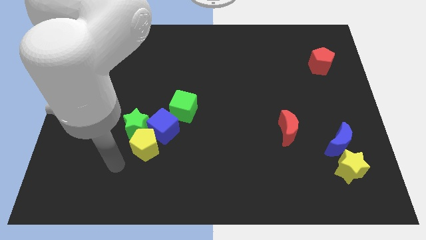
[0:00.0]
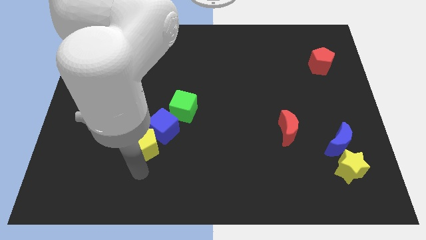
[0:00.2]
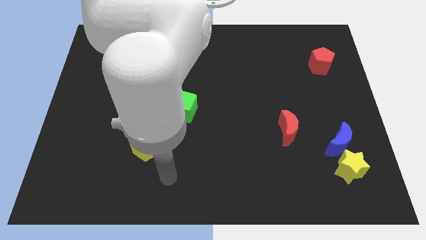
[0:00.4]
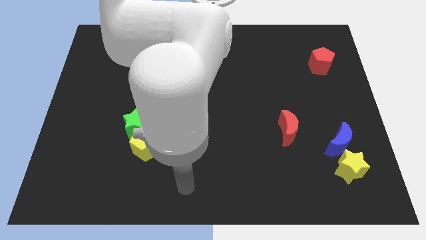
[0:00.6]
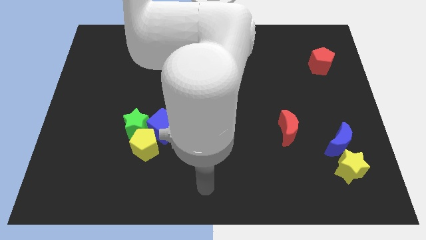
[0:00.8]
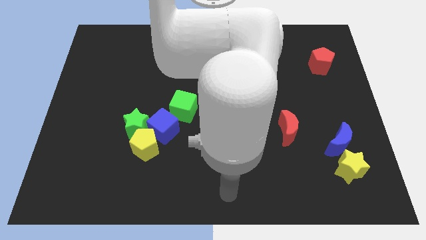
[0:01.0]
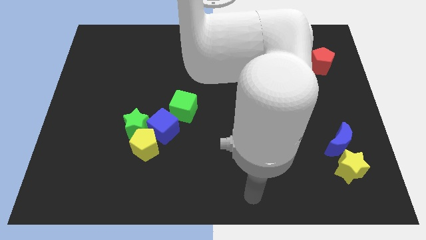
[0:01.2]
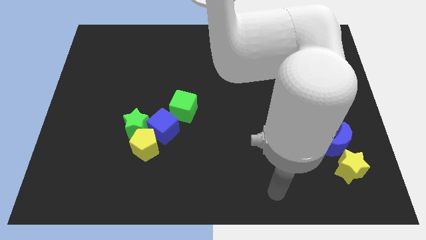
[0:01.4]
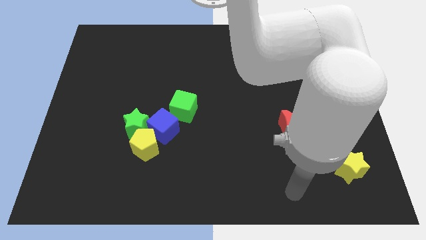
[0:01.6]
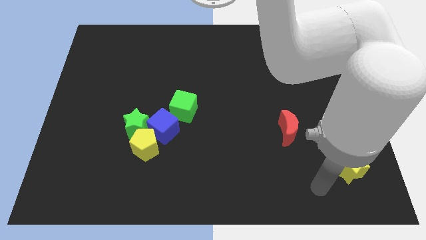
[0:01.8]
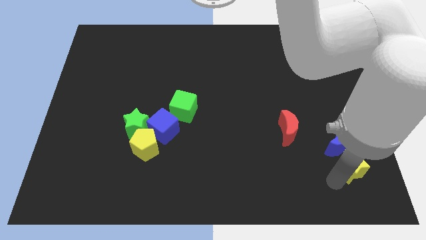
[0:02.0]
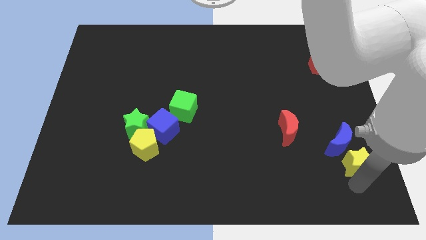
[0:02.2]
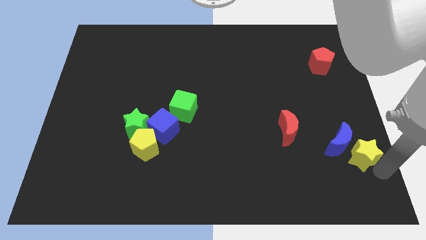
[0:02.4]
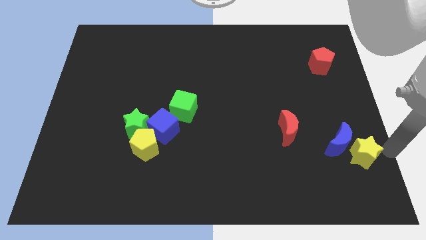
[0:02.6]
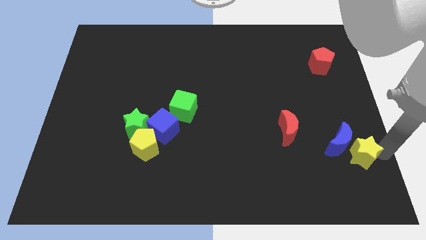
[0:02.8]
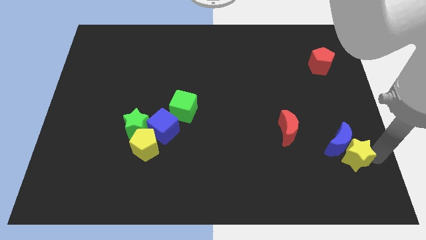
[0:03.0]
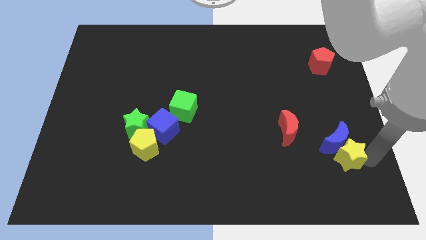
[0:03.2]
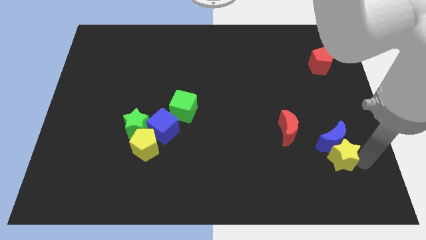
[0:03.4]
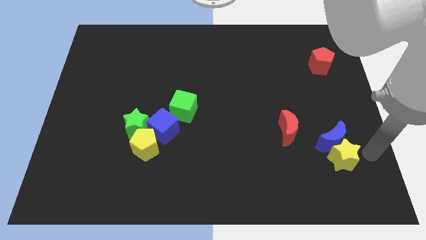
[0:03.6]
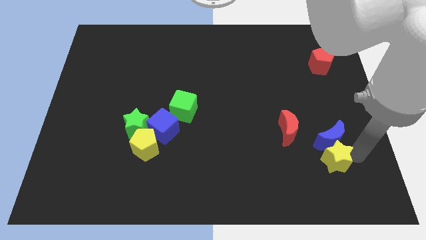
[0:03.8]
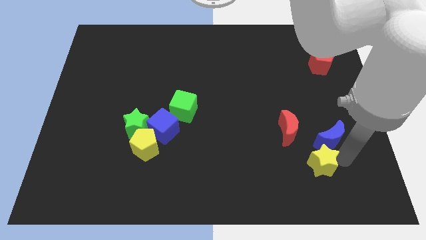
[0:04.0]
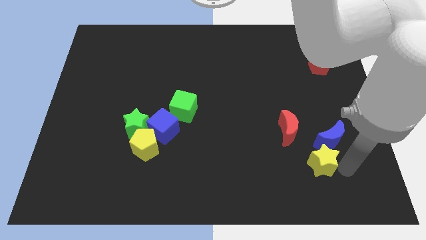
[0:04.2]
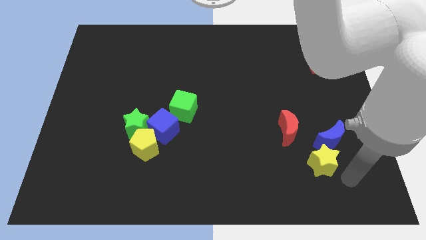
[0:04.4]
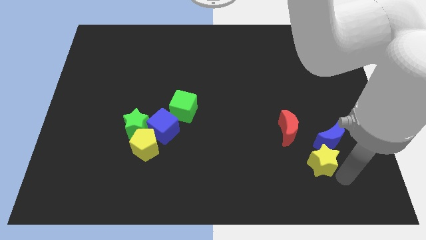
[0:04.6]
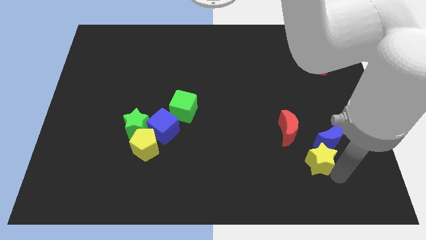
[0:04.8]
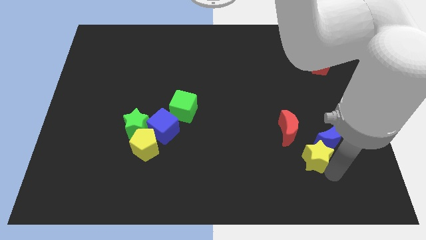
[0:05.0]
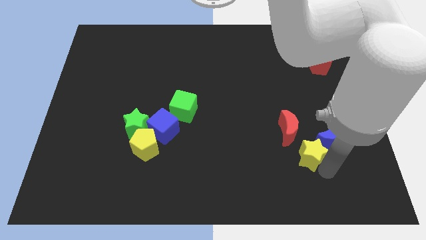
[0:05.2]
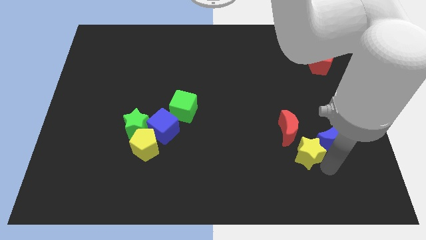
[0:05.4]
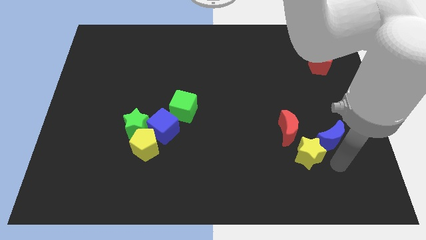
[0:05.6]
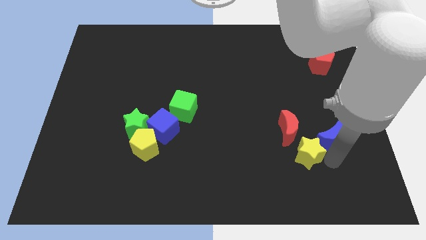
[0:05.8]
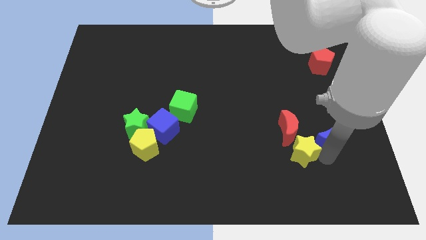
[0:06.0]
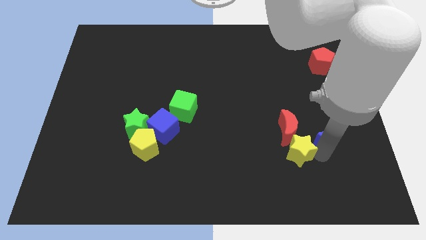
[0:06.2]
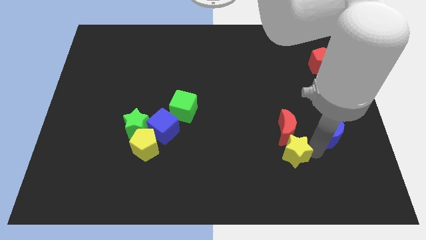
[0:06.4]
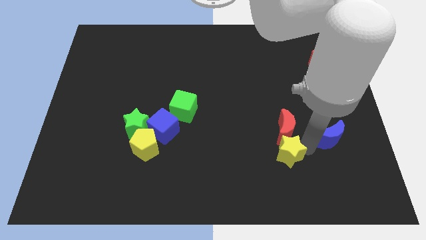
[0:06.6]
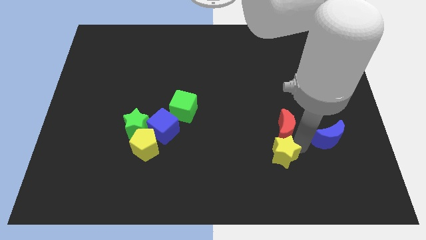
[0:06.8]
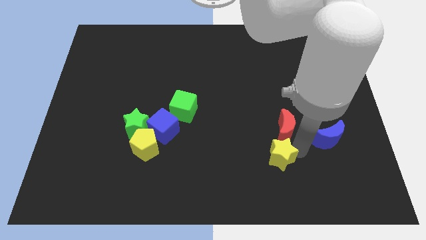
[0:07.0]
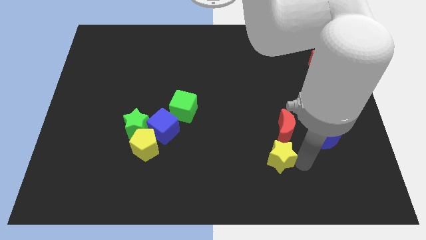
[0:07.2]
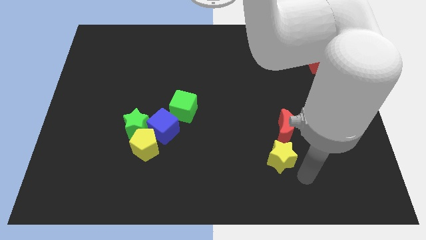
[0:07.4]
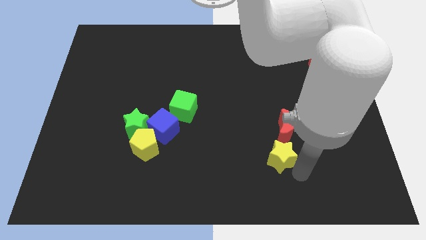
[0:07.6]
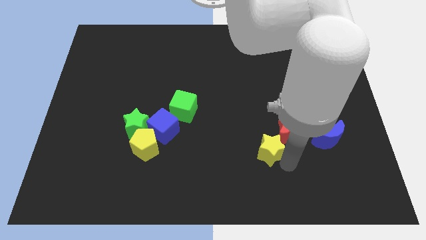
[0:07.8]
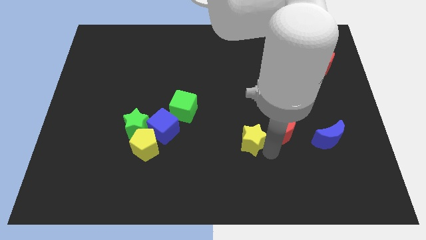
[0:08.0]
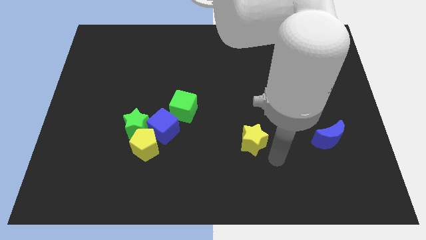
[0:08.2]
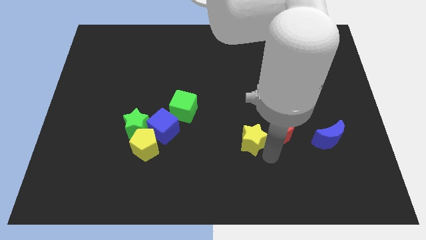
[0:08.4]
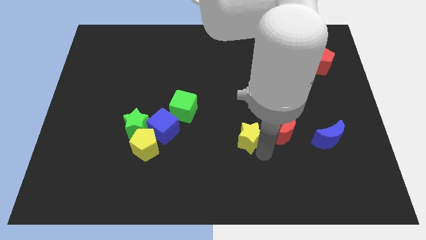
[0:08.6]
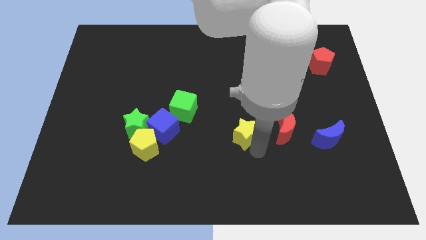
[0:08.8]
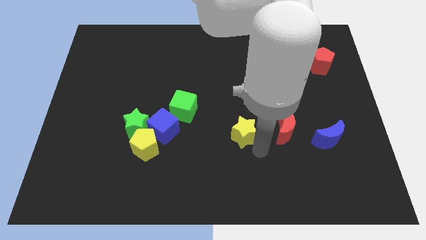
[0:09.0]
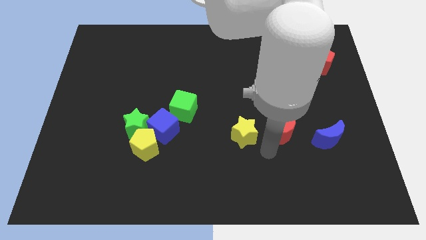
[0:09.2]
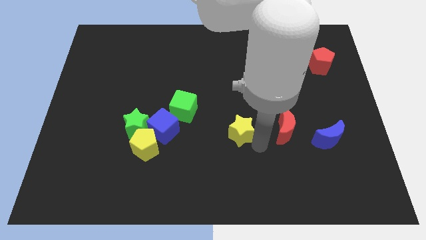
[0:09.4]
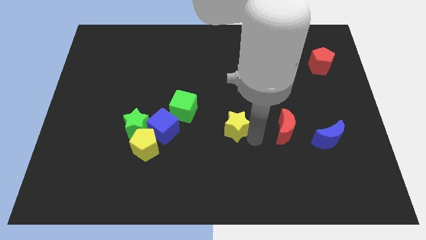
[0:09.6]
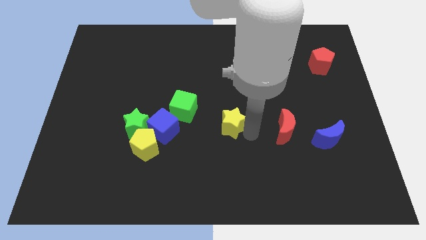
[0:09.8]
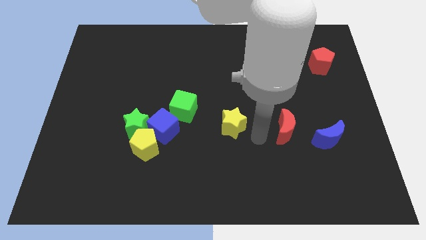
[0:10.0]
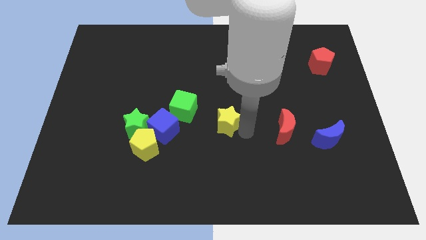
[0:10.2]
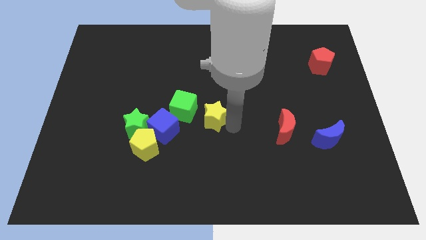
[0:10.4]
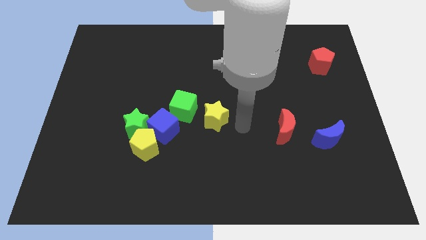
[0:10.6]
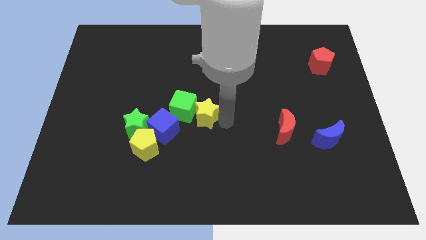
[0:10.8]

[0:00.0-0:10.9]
move the yellow star next to the green cube

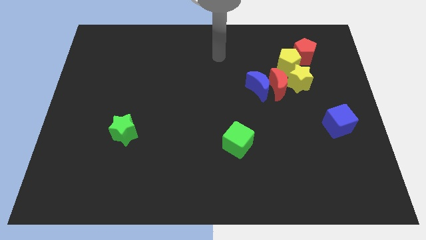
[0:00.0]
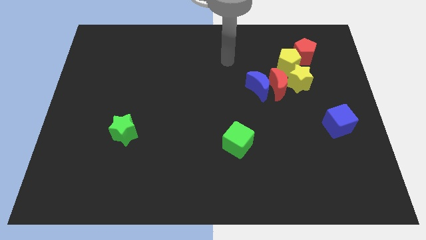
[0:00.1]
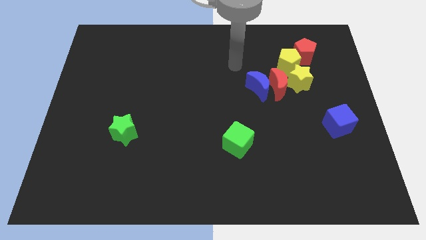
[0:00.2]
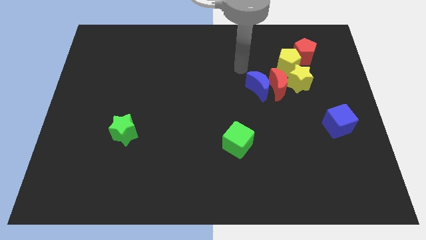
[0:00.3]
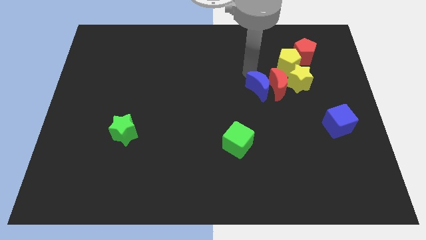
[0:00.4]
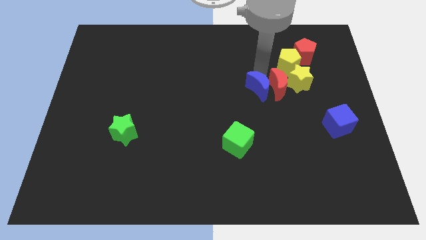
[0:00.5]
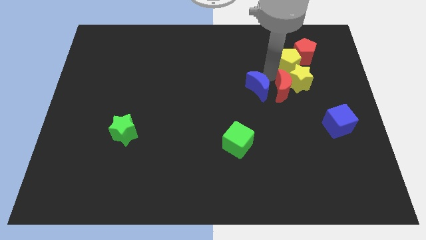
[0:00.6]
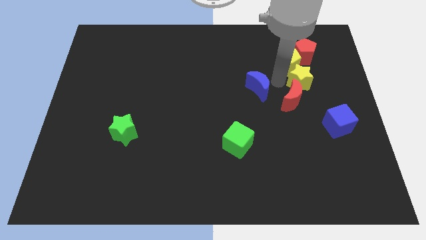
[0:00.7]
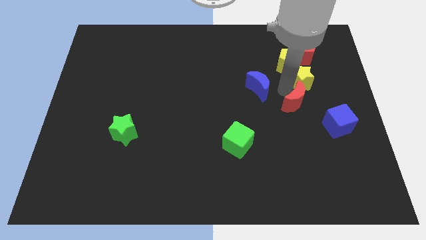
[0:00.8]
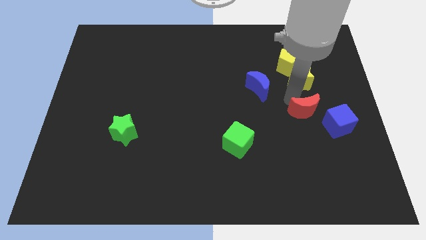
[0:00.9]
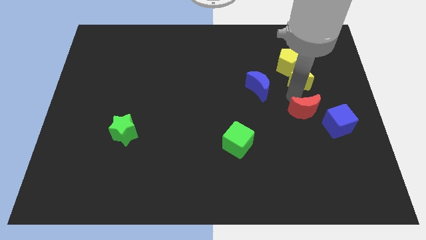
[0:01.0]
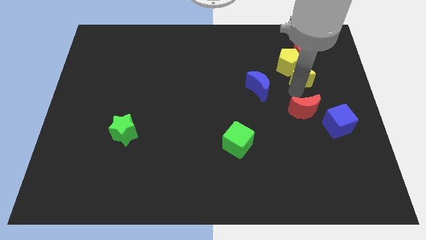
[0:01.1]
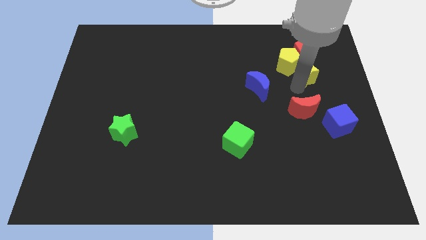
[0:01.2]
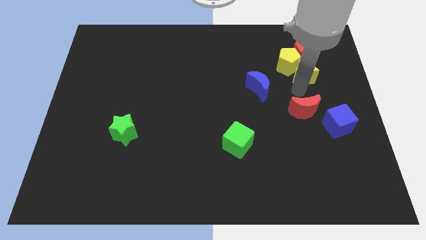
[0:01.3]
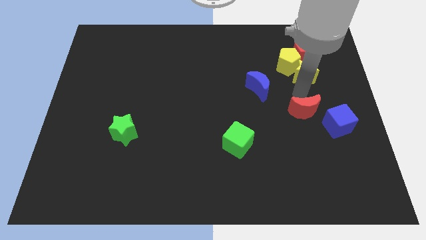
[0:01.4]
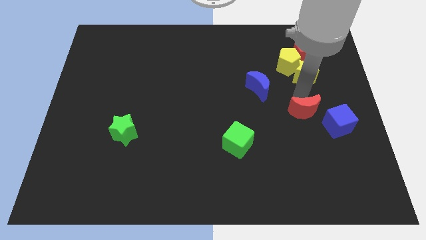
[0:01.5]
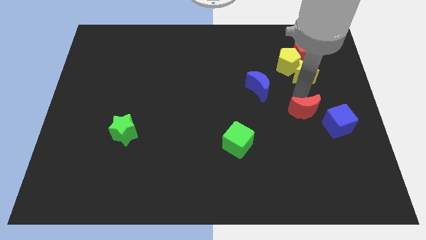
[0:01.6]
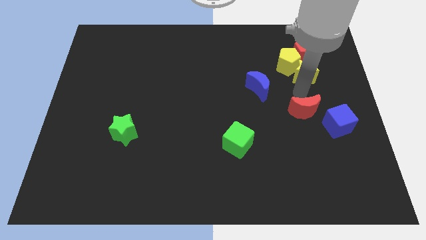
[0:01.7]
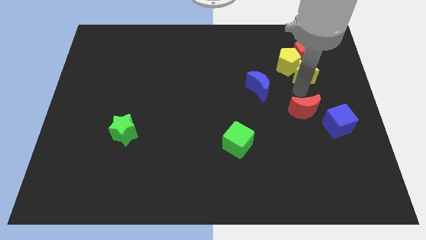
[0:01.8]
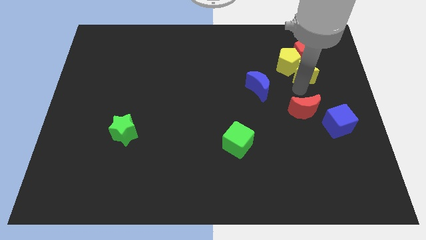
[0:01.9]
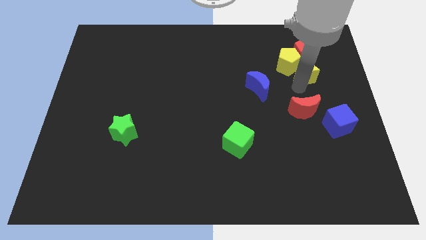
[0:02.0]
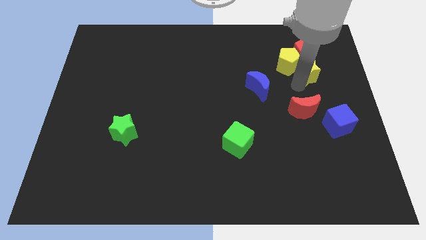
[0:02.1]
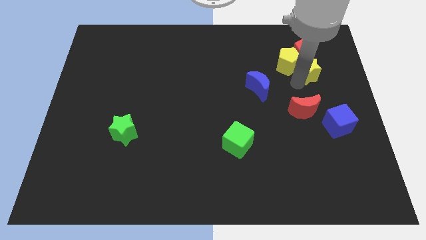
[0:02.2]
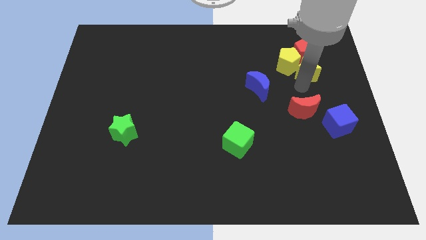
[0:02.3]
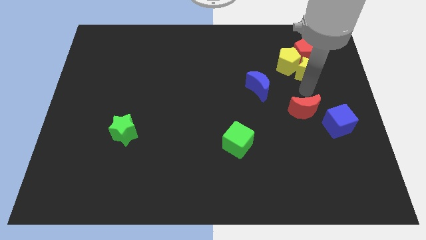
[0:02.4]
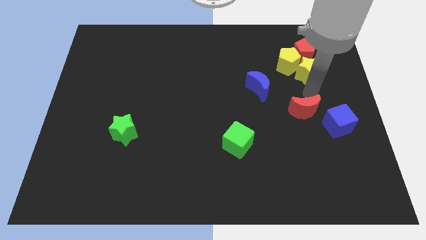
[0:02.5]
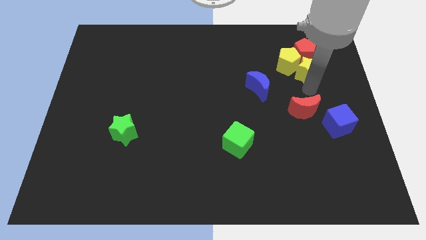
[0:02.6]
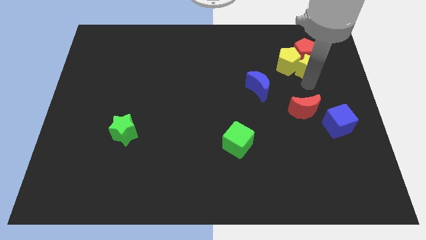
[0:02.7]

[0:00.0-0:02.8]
put the yellow star close to the red pentagon

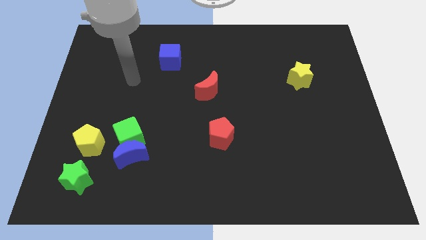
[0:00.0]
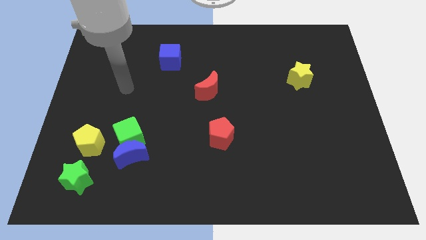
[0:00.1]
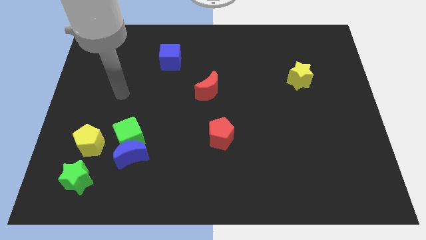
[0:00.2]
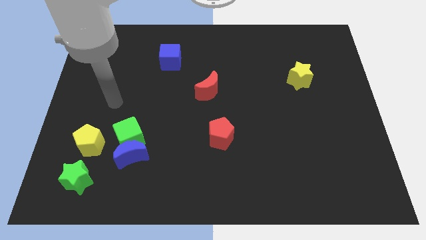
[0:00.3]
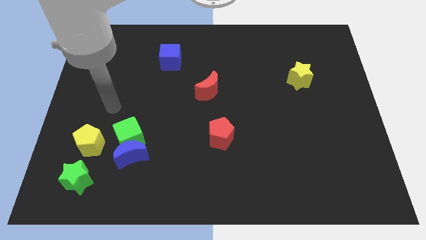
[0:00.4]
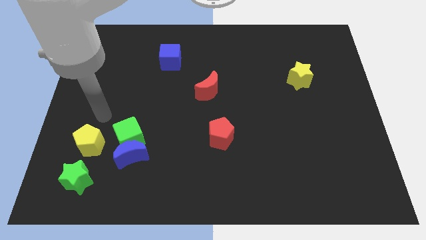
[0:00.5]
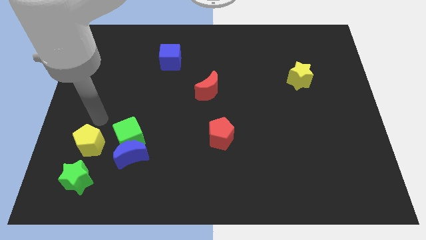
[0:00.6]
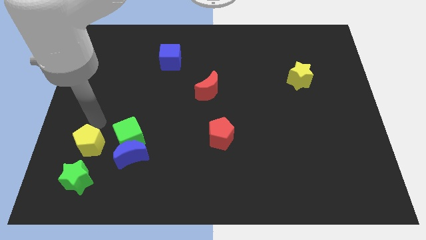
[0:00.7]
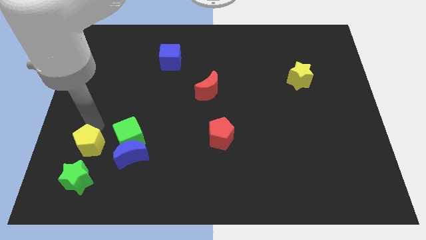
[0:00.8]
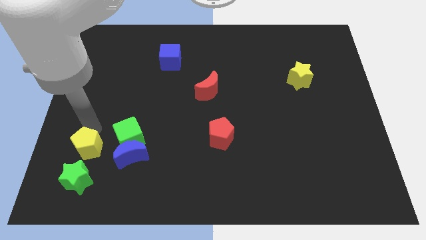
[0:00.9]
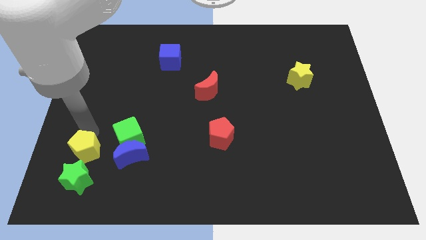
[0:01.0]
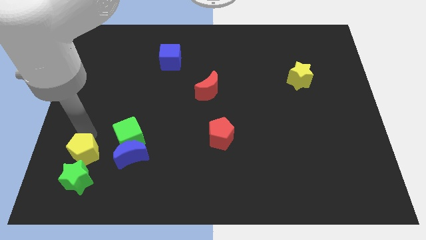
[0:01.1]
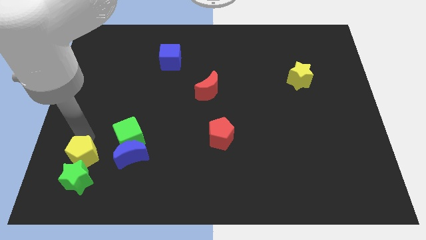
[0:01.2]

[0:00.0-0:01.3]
slide the yellow pentagon close to the green star
